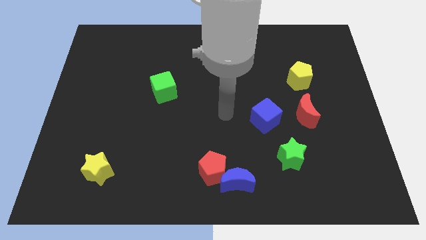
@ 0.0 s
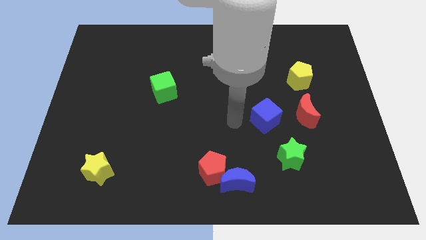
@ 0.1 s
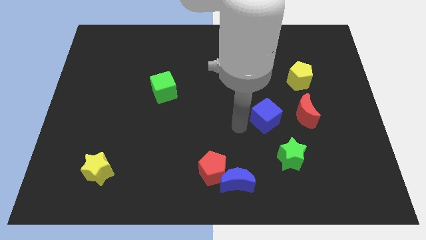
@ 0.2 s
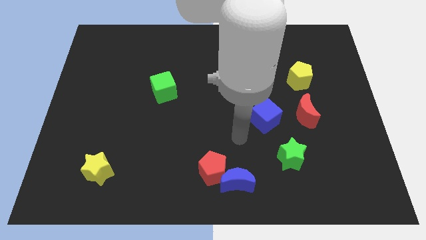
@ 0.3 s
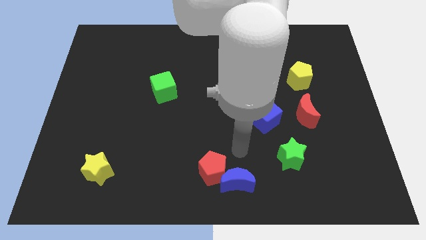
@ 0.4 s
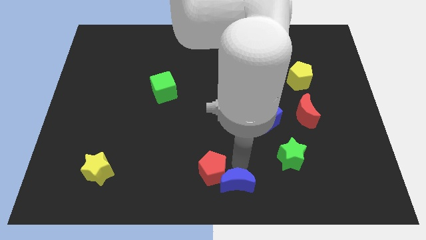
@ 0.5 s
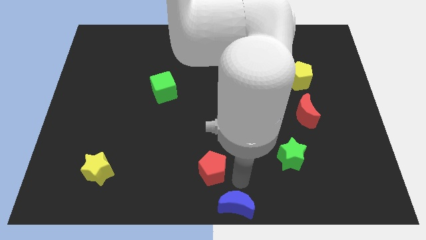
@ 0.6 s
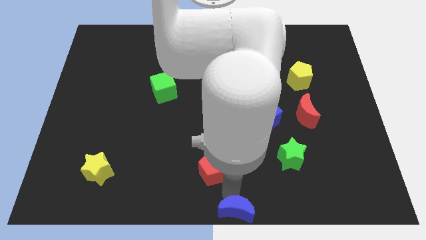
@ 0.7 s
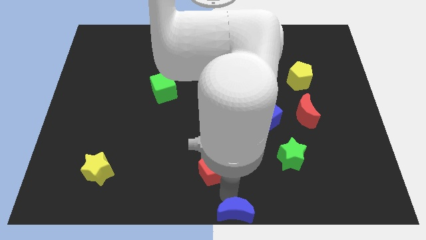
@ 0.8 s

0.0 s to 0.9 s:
move the red pentagon away from the blue moon

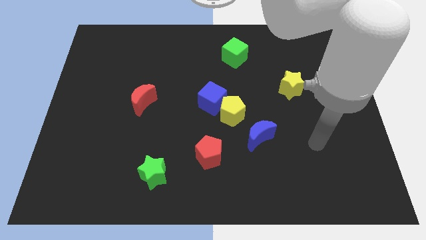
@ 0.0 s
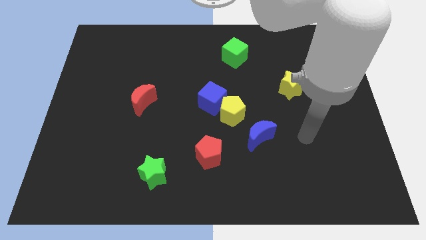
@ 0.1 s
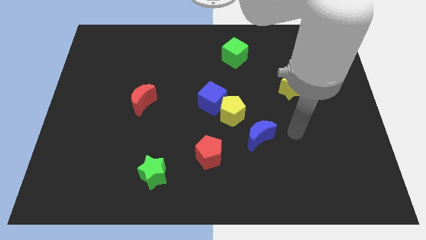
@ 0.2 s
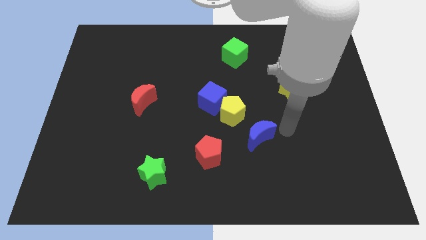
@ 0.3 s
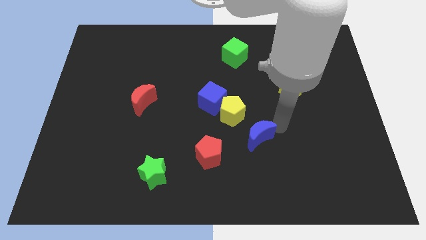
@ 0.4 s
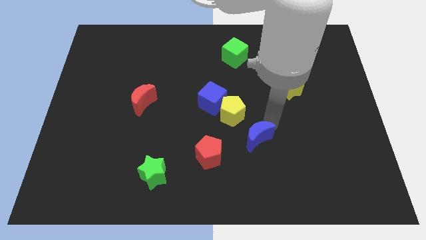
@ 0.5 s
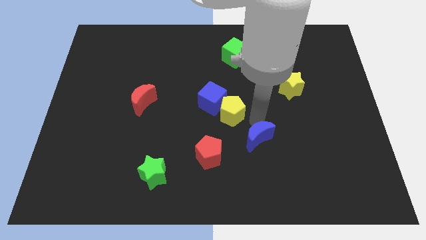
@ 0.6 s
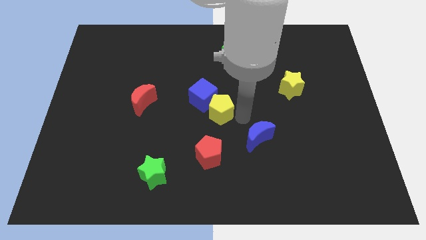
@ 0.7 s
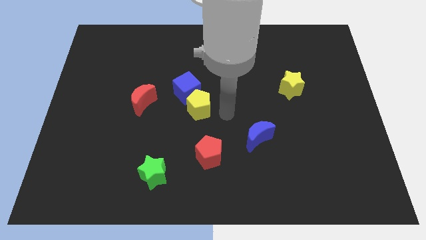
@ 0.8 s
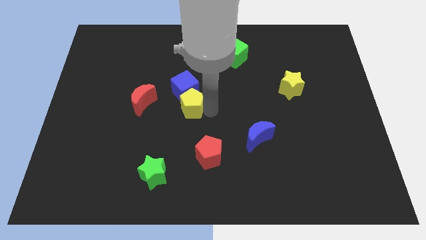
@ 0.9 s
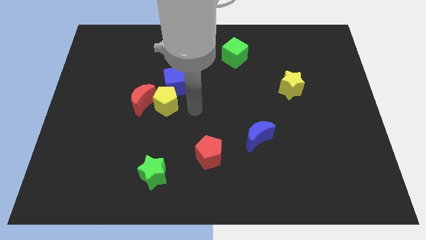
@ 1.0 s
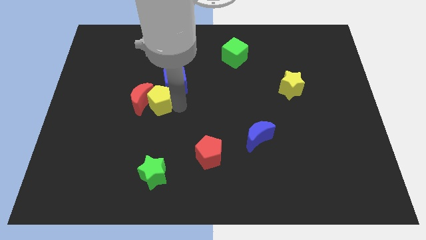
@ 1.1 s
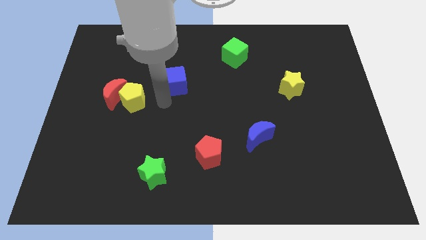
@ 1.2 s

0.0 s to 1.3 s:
move the blue cube away from the yellow pentagon

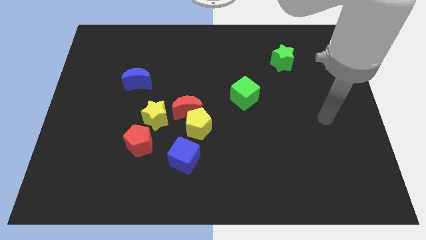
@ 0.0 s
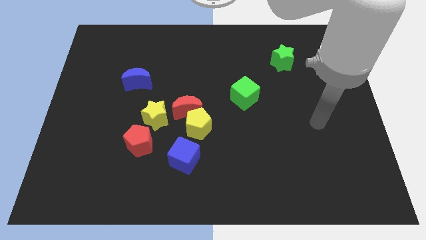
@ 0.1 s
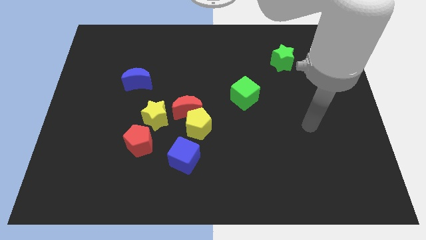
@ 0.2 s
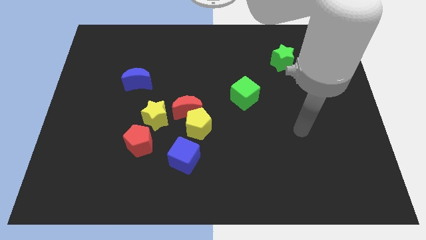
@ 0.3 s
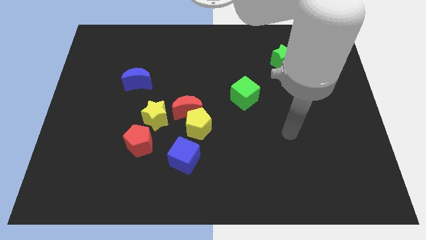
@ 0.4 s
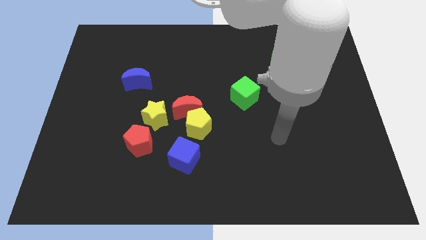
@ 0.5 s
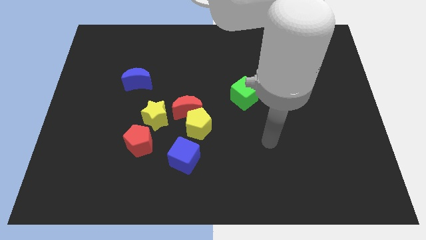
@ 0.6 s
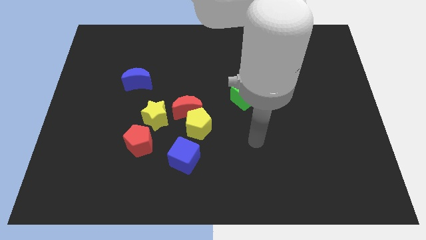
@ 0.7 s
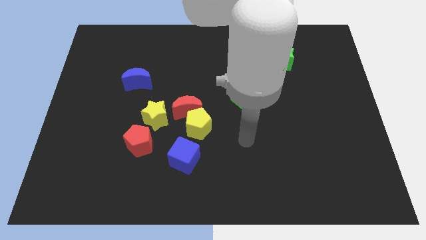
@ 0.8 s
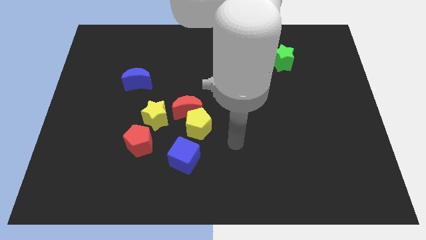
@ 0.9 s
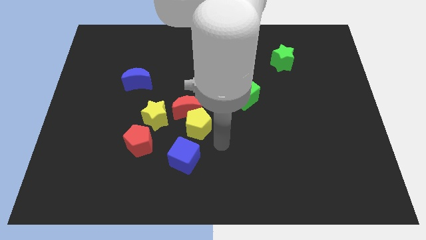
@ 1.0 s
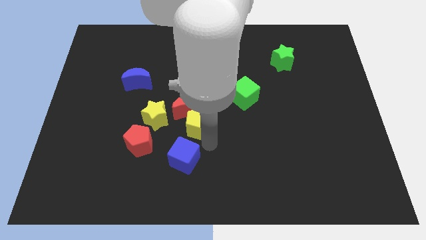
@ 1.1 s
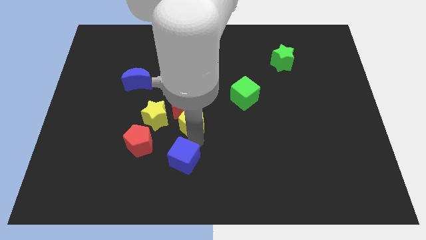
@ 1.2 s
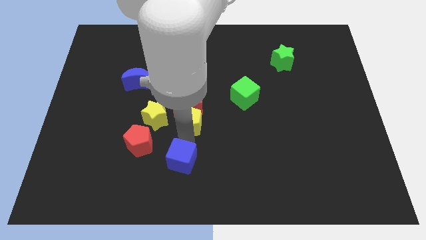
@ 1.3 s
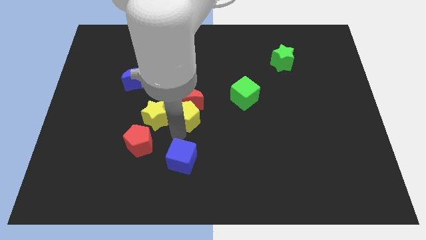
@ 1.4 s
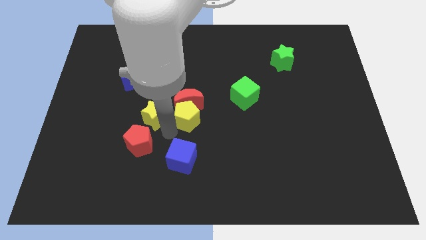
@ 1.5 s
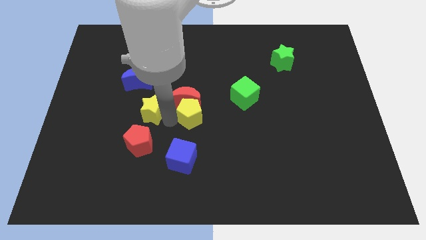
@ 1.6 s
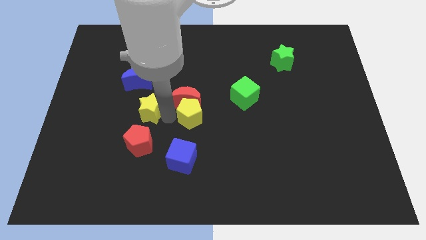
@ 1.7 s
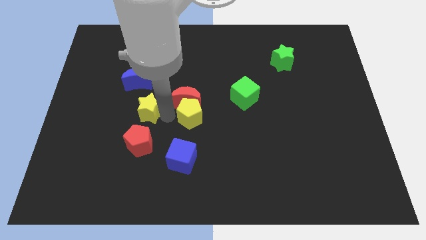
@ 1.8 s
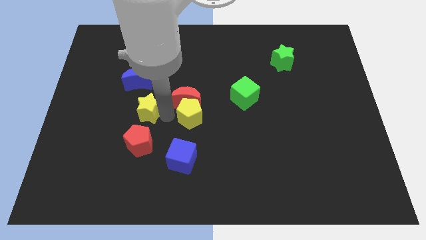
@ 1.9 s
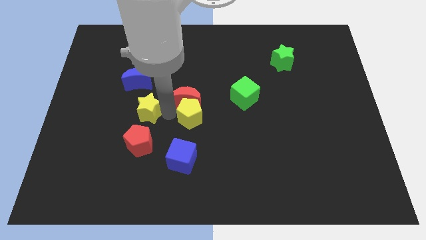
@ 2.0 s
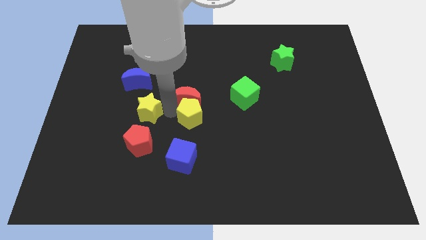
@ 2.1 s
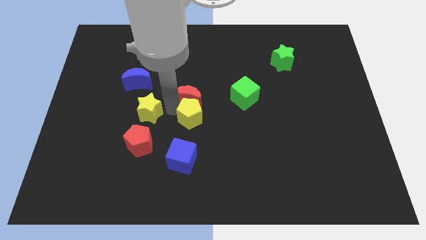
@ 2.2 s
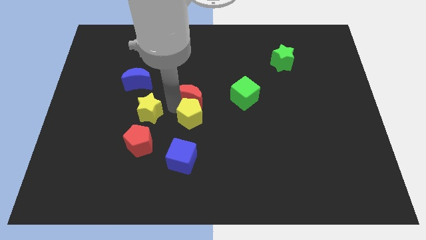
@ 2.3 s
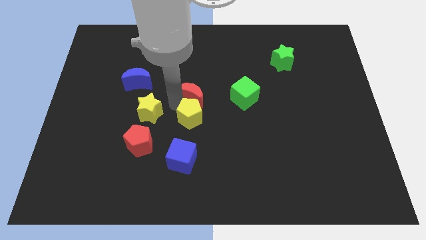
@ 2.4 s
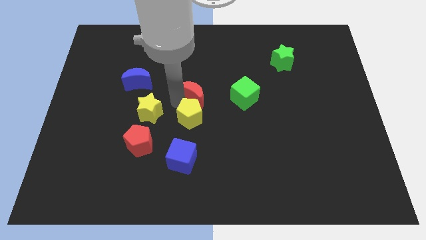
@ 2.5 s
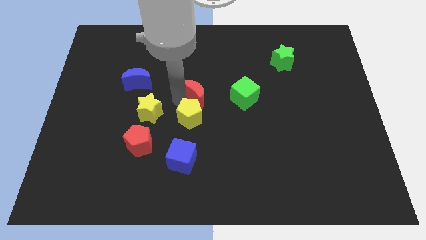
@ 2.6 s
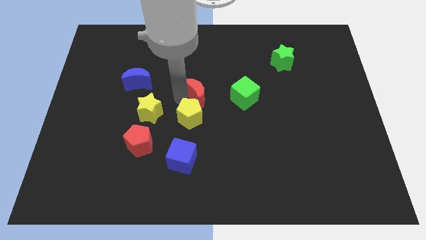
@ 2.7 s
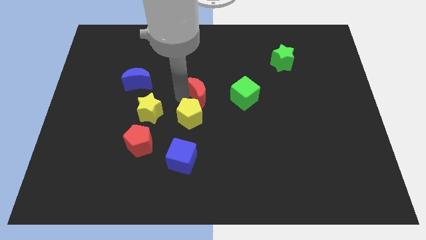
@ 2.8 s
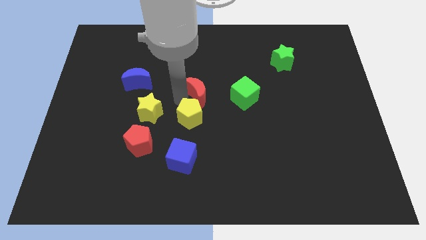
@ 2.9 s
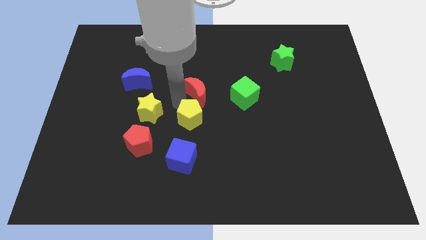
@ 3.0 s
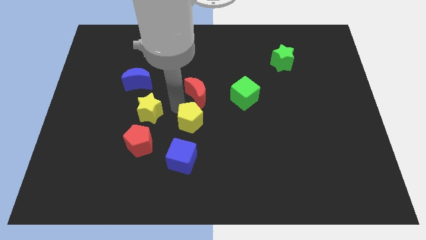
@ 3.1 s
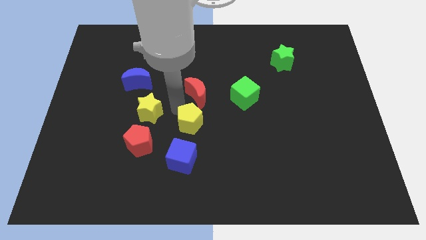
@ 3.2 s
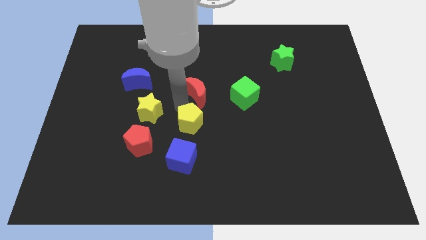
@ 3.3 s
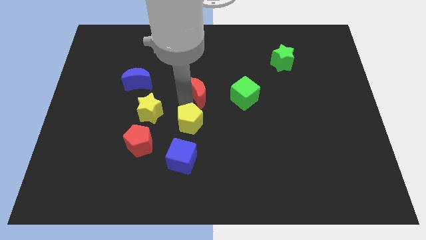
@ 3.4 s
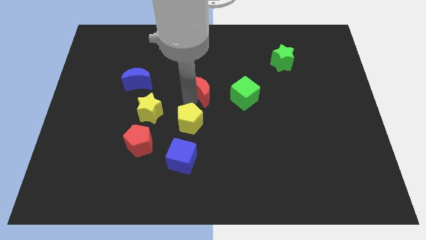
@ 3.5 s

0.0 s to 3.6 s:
pull the red moon apart from the yellow pentagon and yellow star

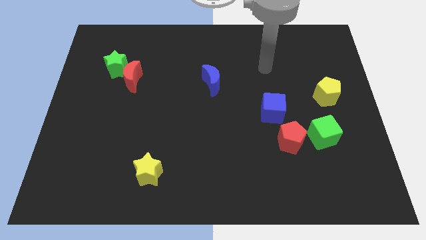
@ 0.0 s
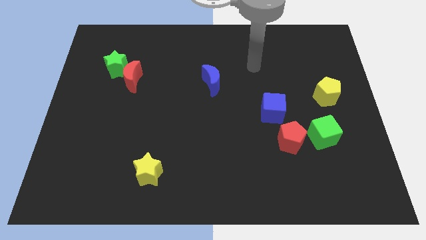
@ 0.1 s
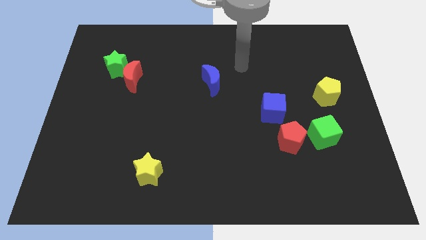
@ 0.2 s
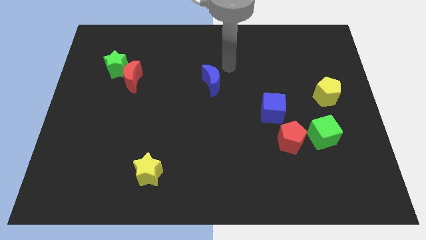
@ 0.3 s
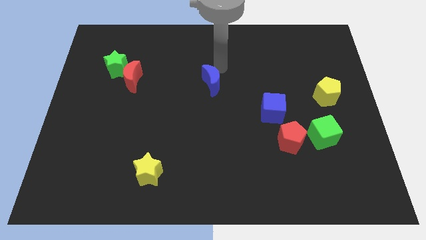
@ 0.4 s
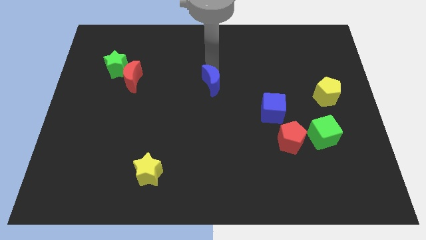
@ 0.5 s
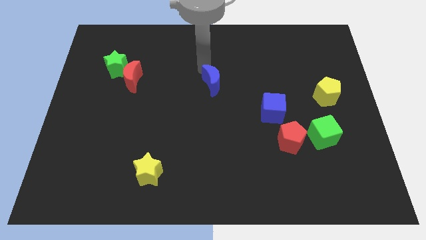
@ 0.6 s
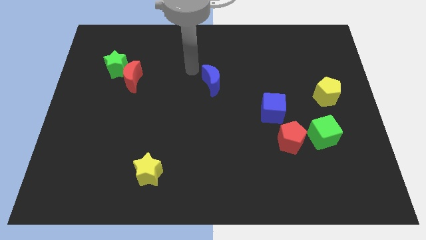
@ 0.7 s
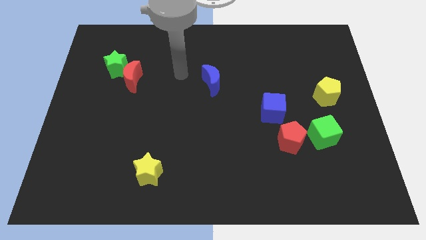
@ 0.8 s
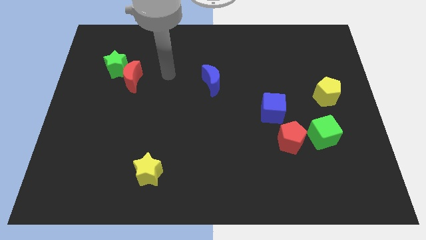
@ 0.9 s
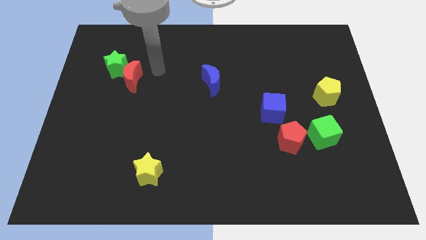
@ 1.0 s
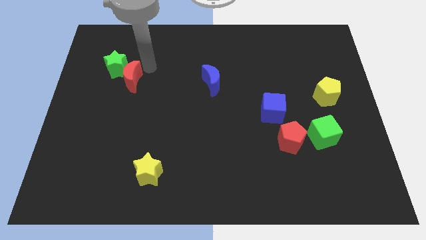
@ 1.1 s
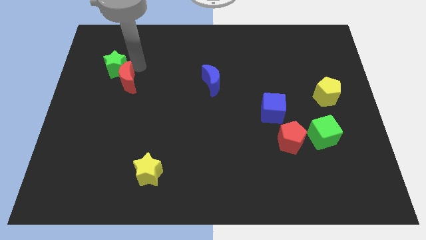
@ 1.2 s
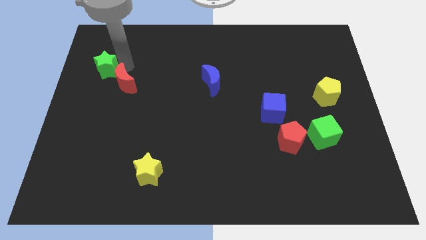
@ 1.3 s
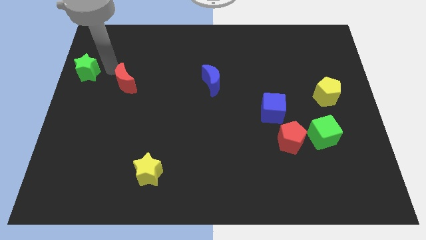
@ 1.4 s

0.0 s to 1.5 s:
separate the red moon from the green star

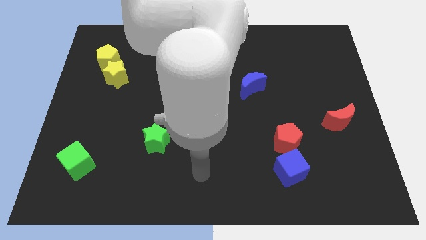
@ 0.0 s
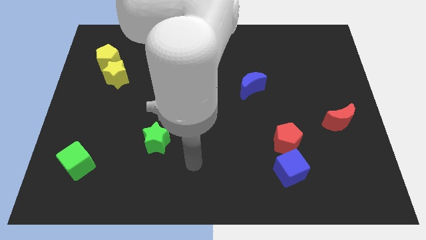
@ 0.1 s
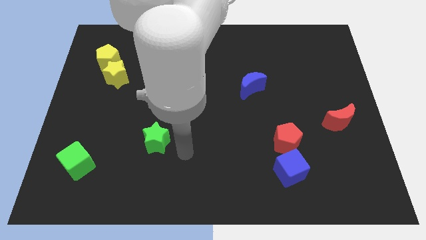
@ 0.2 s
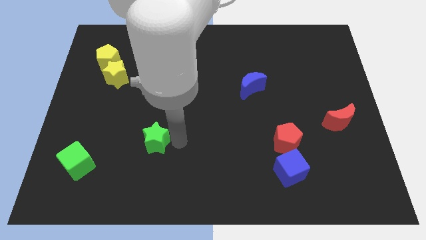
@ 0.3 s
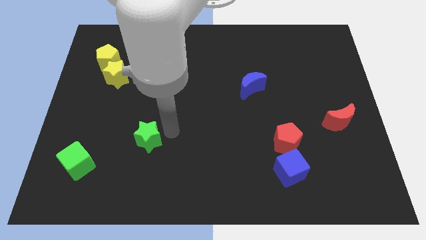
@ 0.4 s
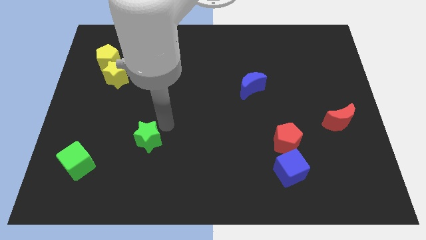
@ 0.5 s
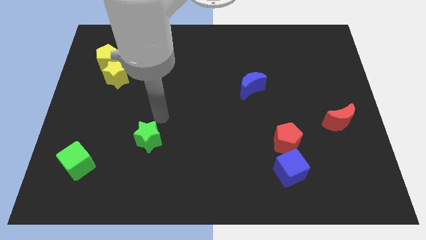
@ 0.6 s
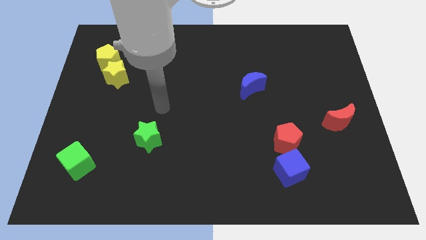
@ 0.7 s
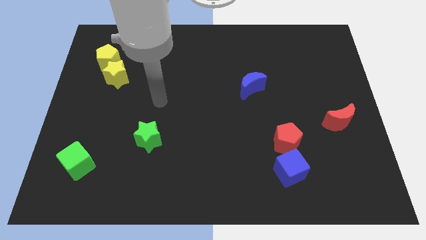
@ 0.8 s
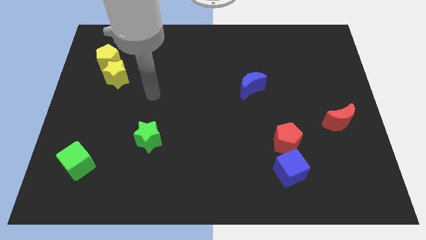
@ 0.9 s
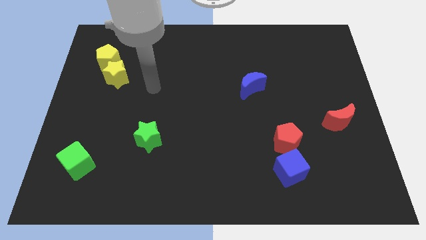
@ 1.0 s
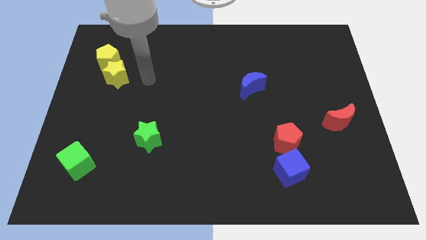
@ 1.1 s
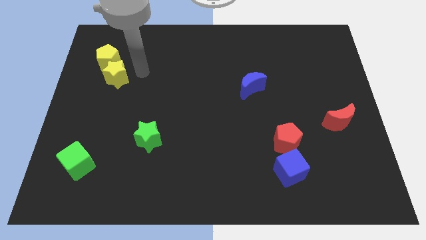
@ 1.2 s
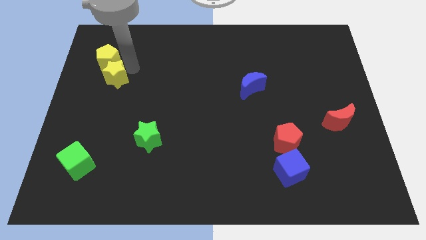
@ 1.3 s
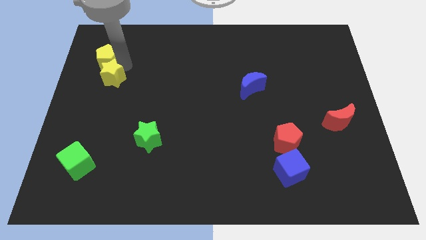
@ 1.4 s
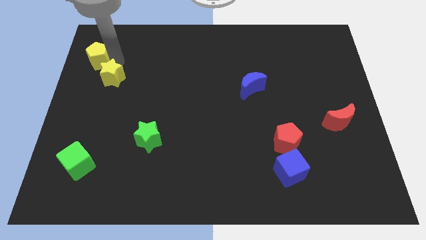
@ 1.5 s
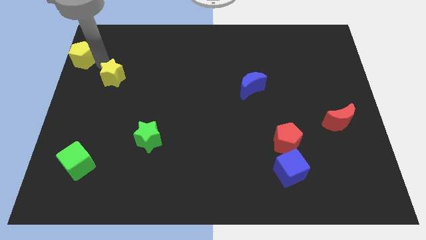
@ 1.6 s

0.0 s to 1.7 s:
separate the yellow star from the yellow pentagon

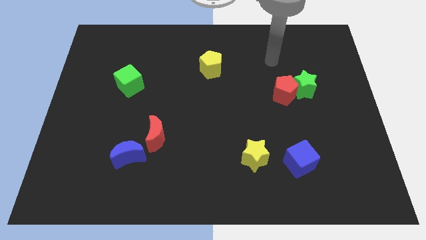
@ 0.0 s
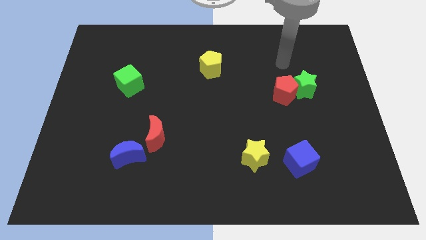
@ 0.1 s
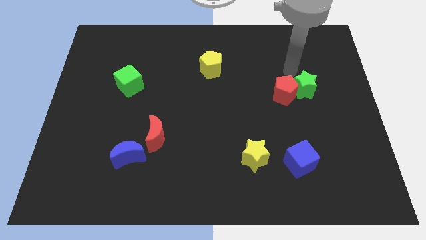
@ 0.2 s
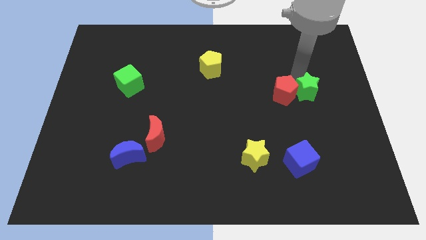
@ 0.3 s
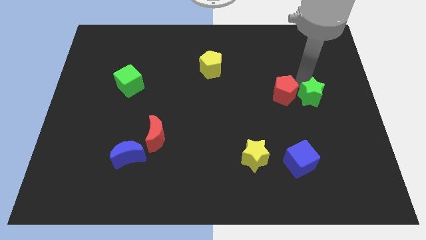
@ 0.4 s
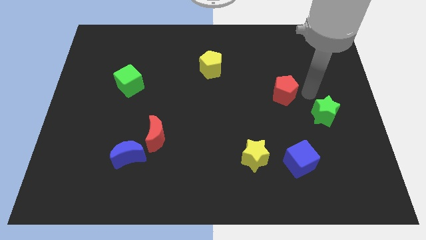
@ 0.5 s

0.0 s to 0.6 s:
move the red pentagon away from the green star
